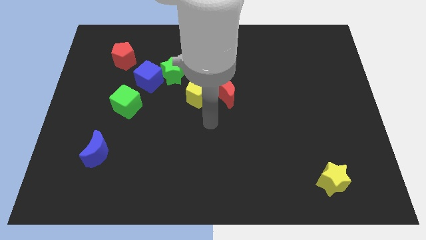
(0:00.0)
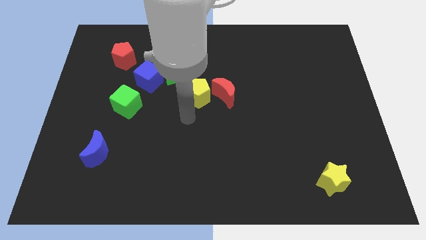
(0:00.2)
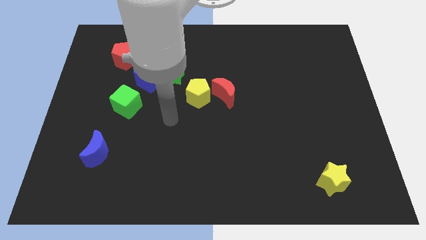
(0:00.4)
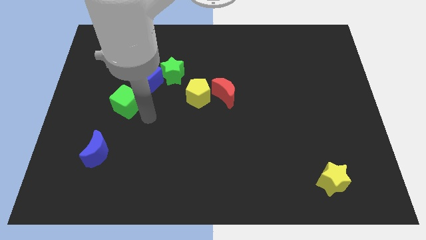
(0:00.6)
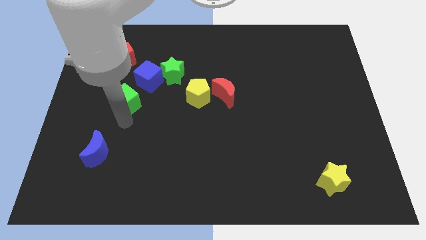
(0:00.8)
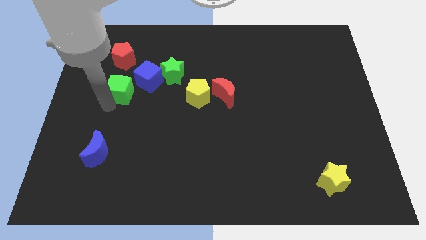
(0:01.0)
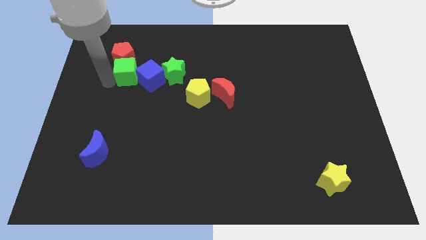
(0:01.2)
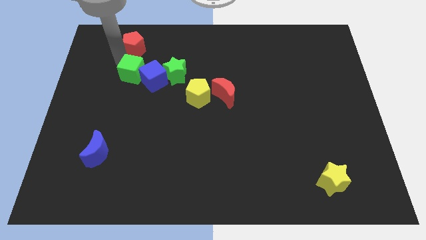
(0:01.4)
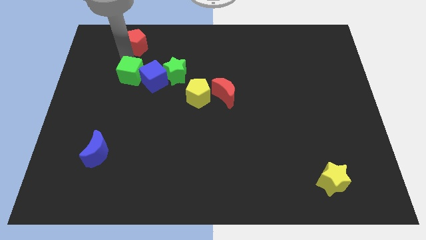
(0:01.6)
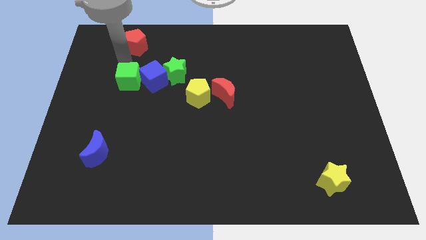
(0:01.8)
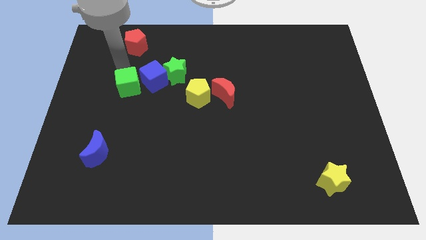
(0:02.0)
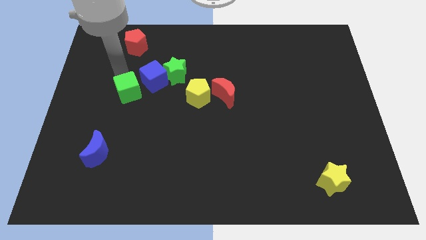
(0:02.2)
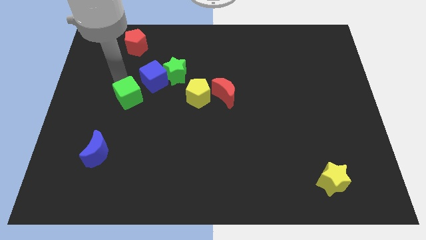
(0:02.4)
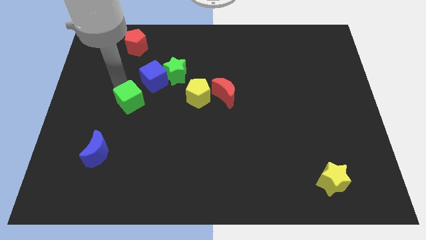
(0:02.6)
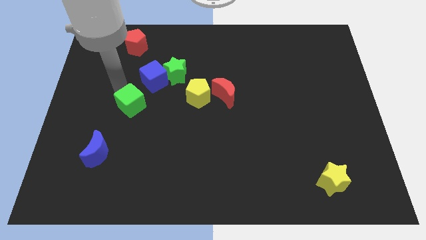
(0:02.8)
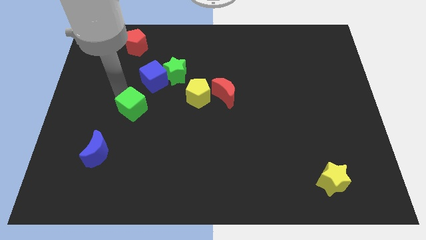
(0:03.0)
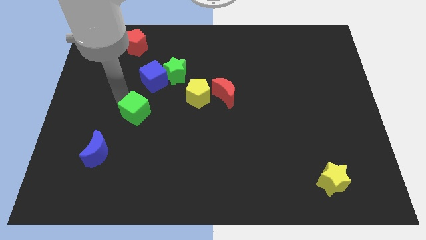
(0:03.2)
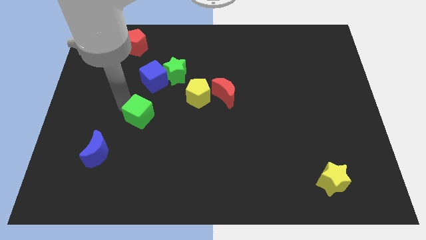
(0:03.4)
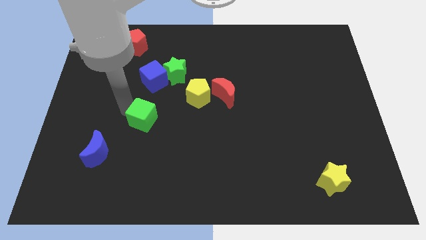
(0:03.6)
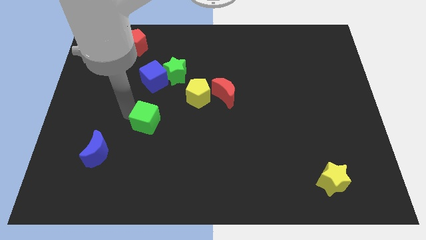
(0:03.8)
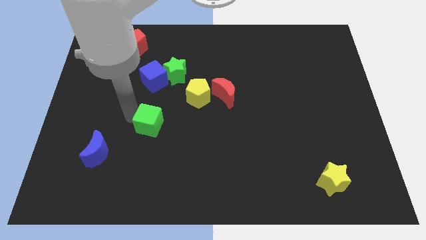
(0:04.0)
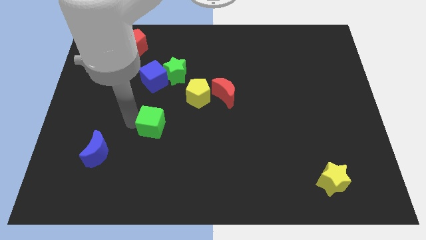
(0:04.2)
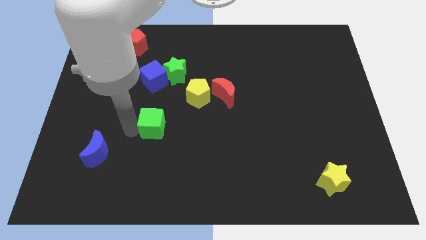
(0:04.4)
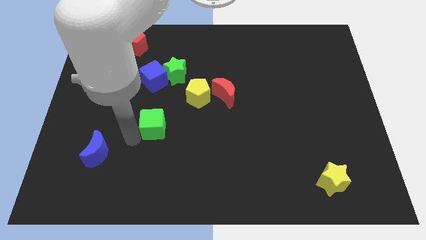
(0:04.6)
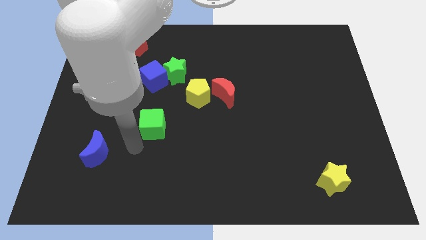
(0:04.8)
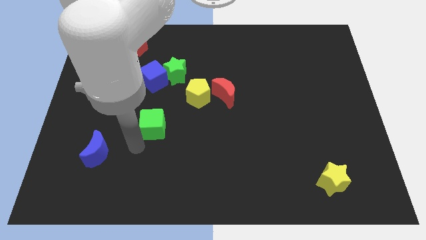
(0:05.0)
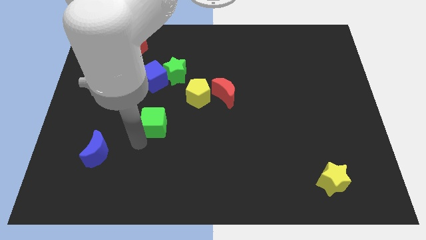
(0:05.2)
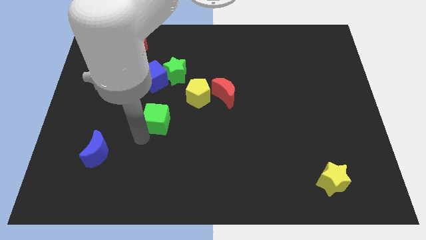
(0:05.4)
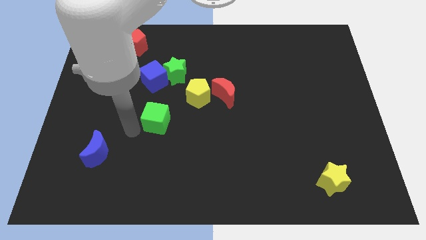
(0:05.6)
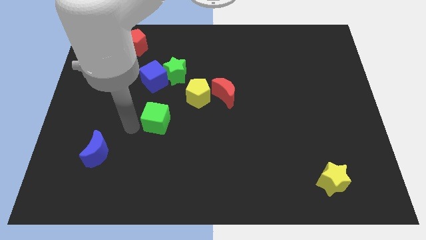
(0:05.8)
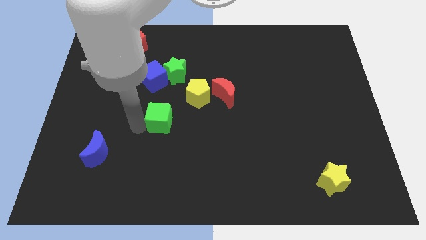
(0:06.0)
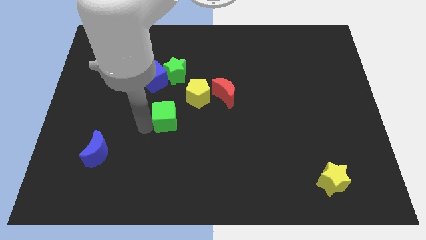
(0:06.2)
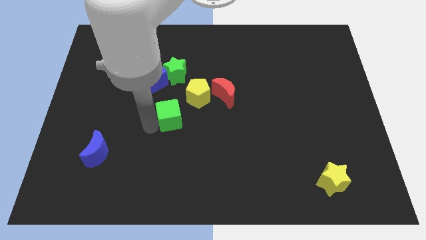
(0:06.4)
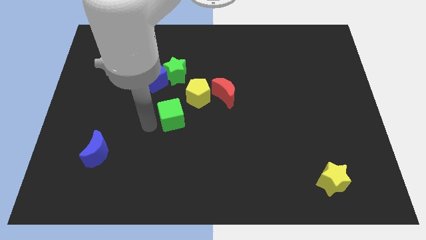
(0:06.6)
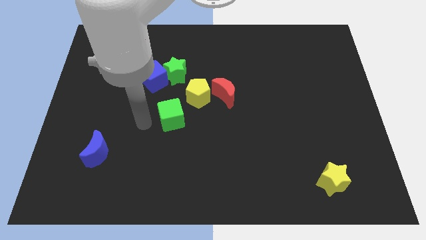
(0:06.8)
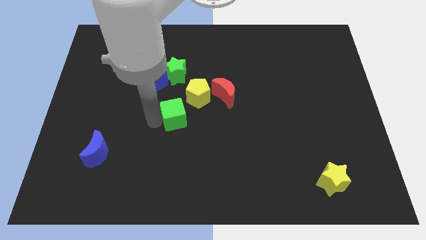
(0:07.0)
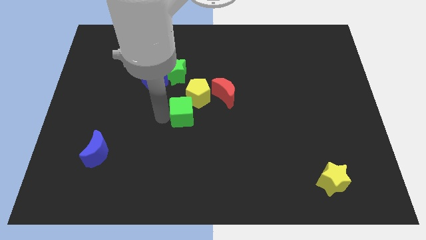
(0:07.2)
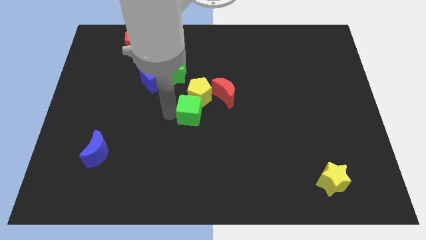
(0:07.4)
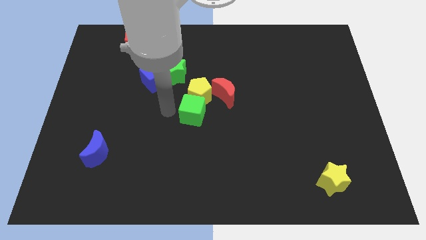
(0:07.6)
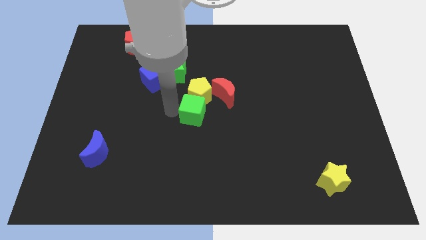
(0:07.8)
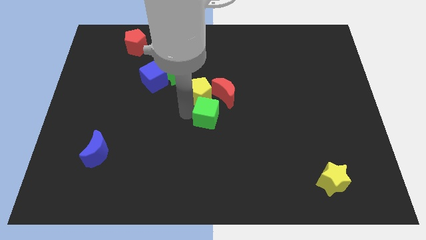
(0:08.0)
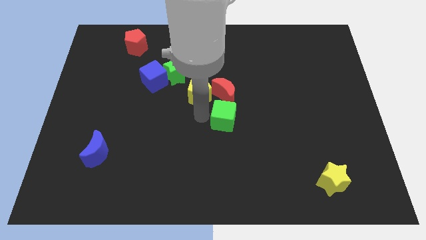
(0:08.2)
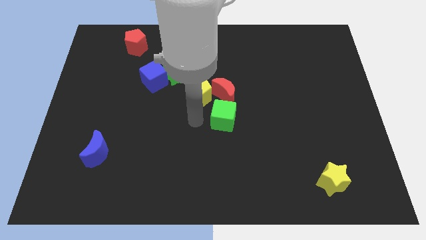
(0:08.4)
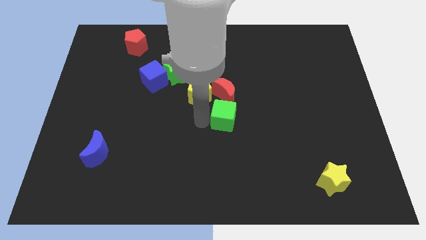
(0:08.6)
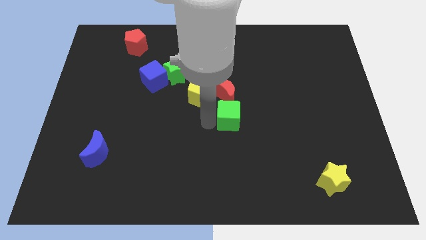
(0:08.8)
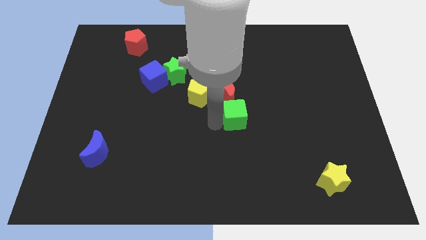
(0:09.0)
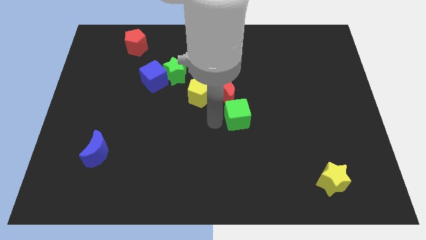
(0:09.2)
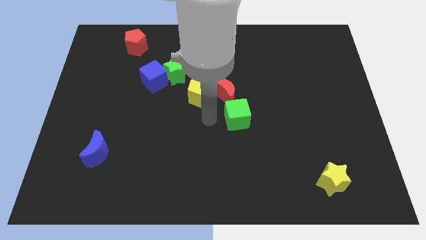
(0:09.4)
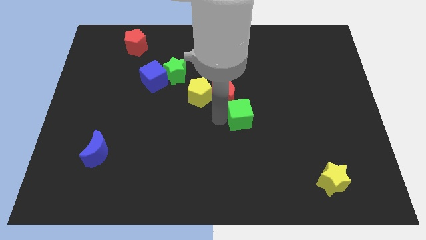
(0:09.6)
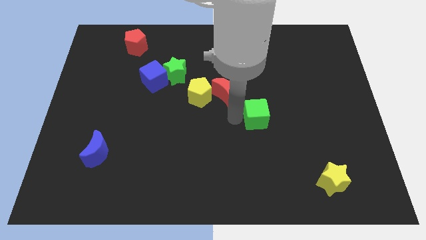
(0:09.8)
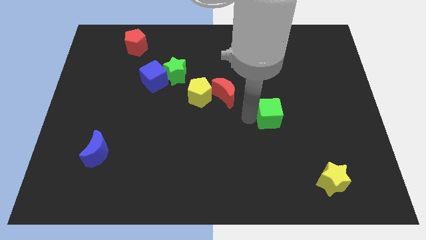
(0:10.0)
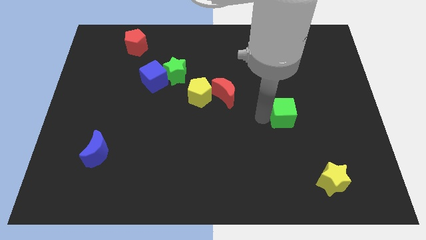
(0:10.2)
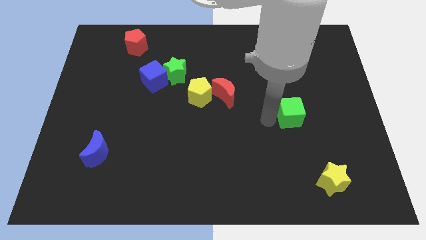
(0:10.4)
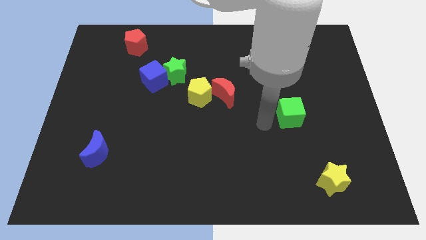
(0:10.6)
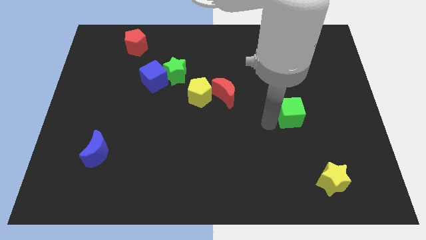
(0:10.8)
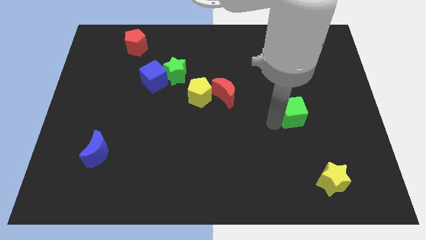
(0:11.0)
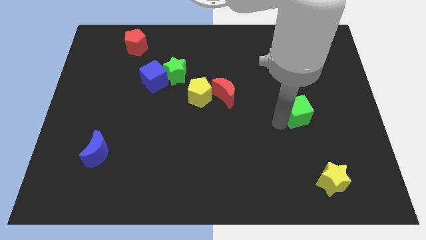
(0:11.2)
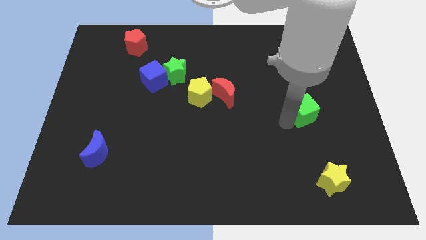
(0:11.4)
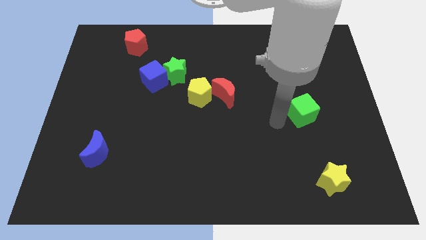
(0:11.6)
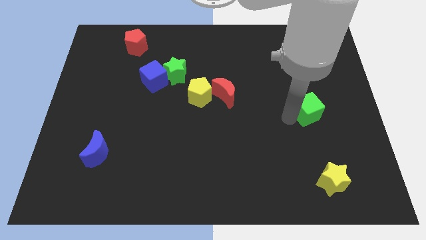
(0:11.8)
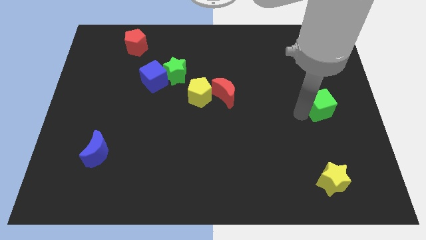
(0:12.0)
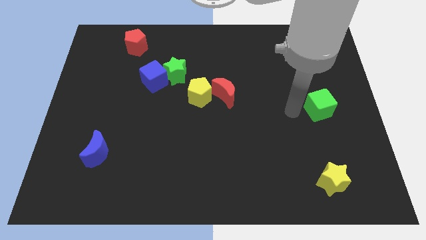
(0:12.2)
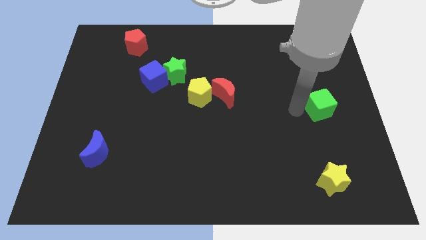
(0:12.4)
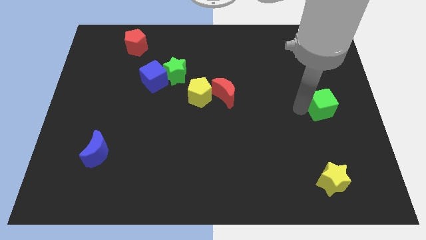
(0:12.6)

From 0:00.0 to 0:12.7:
move the green cube to the right side
